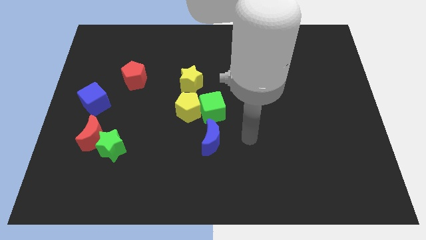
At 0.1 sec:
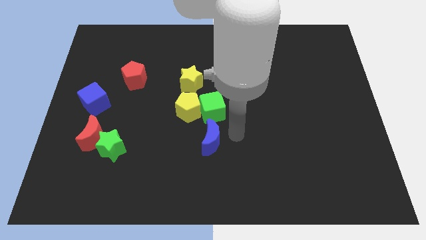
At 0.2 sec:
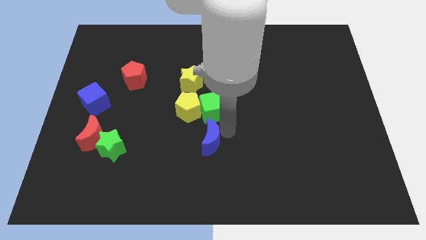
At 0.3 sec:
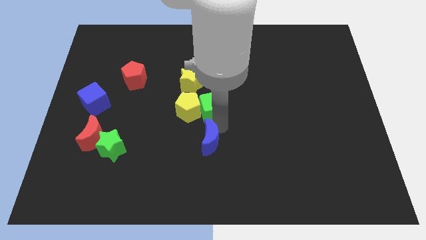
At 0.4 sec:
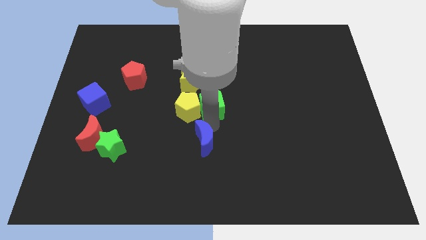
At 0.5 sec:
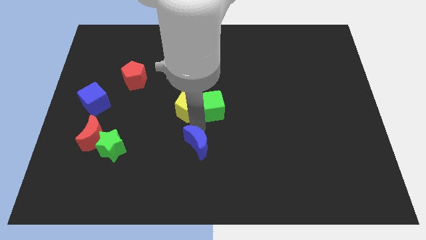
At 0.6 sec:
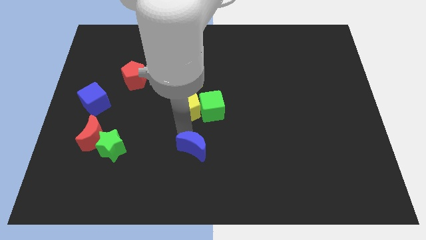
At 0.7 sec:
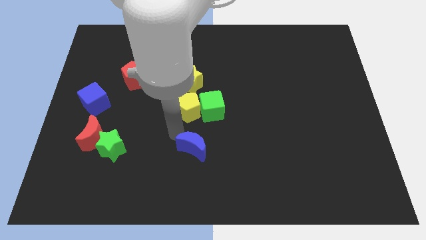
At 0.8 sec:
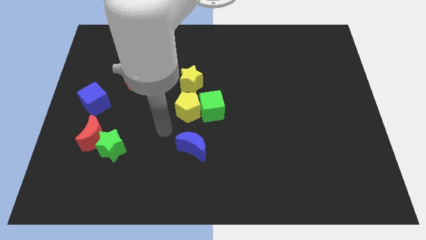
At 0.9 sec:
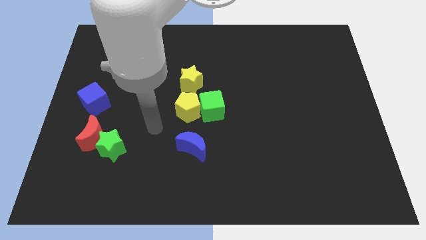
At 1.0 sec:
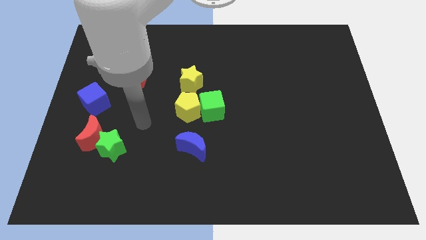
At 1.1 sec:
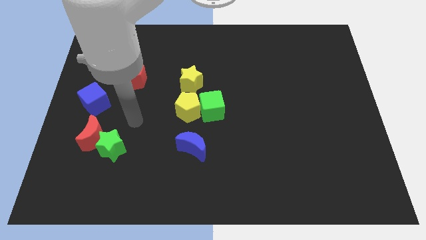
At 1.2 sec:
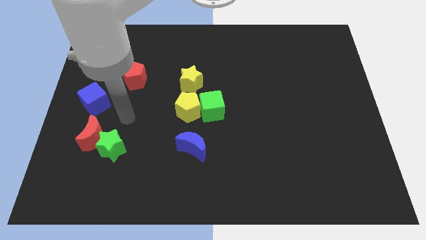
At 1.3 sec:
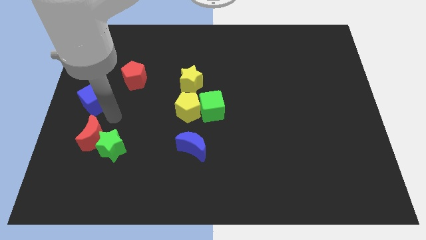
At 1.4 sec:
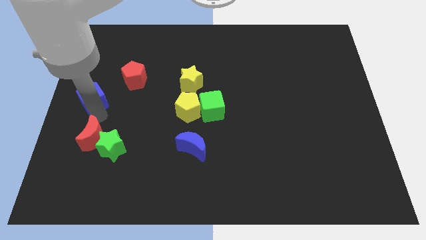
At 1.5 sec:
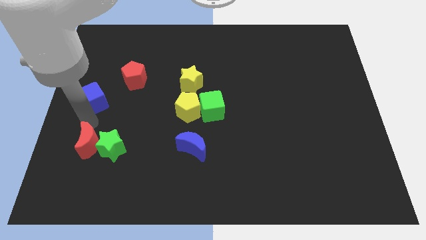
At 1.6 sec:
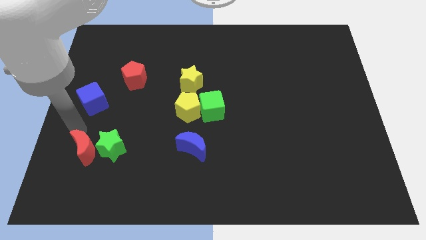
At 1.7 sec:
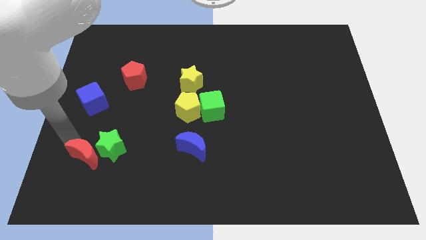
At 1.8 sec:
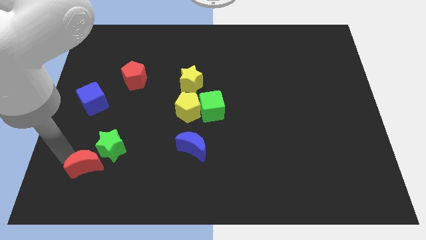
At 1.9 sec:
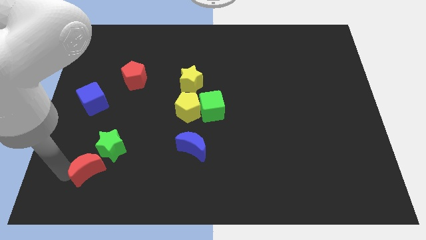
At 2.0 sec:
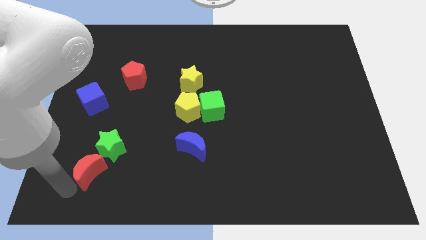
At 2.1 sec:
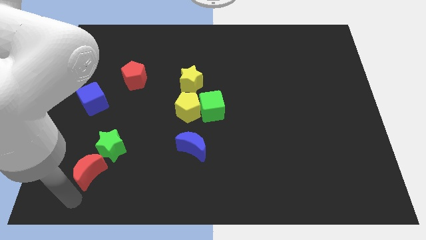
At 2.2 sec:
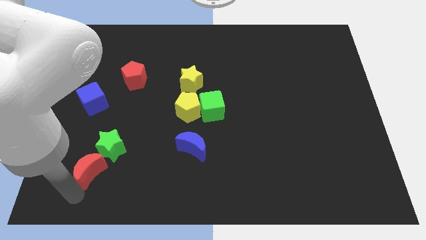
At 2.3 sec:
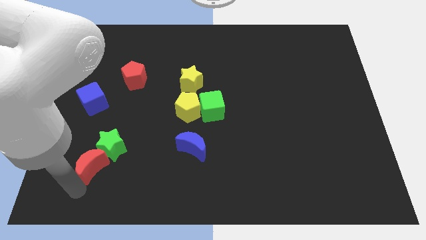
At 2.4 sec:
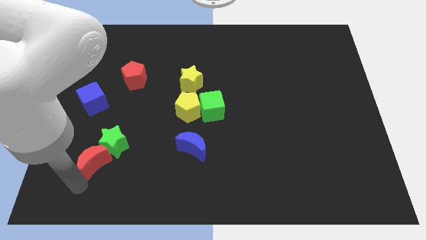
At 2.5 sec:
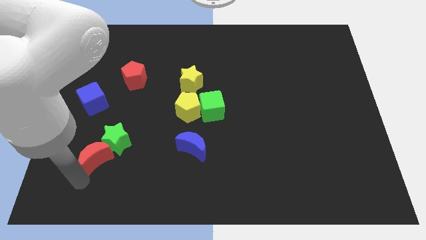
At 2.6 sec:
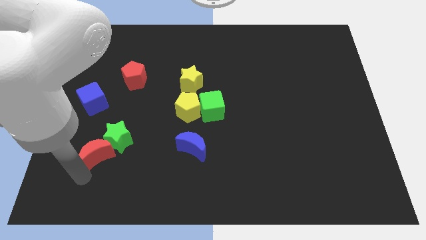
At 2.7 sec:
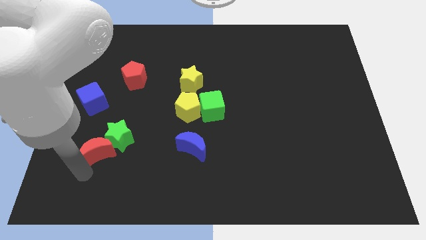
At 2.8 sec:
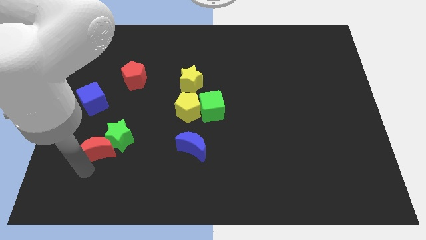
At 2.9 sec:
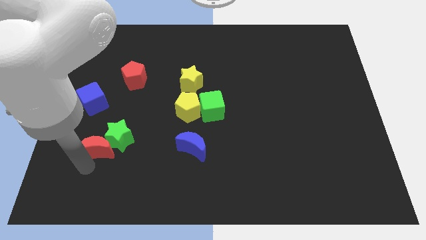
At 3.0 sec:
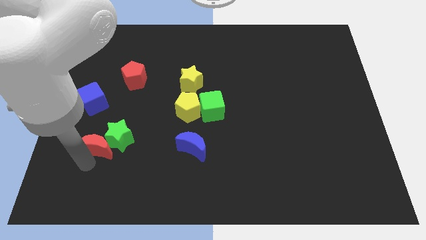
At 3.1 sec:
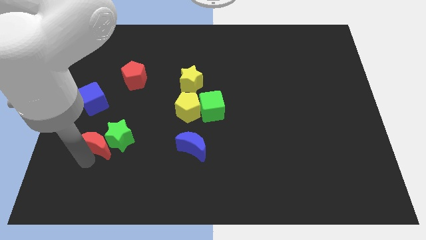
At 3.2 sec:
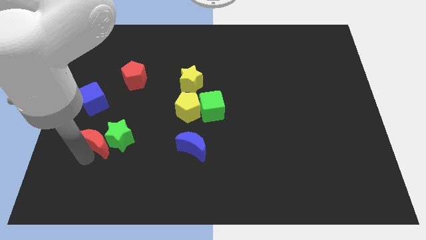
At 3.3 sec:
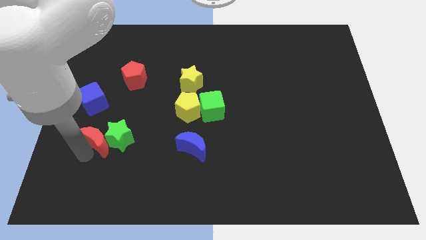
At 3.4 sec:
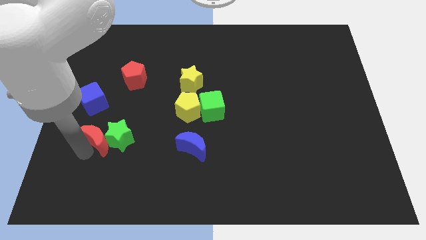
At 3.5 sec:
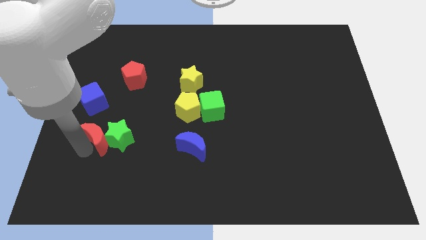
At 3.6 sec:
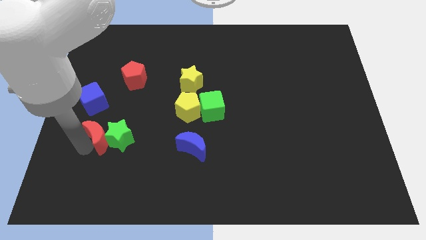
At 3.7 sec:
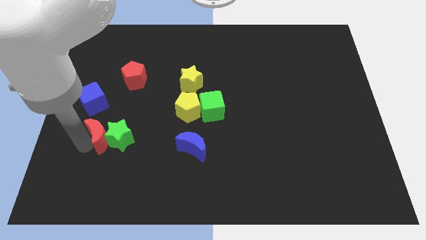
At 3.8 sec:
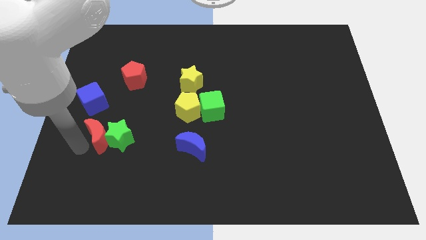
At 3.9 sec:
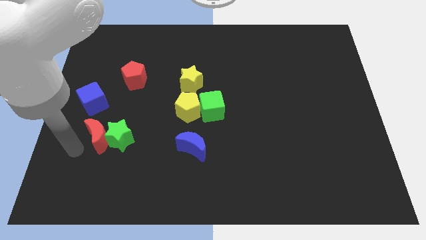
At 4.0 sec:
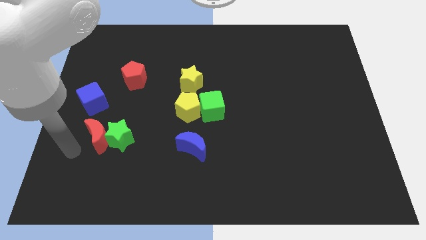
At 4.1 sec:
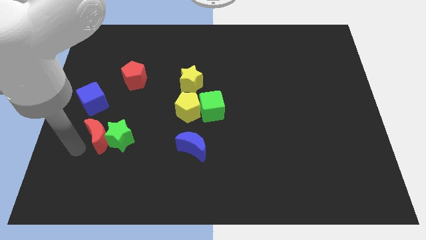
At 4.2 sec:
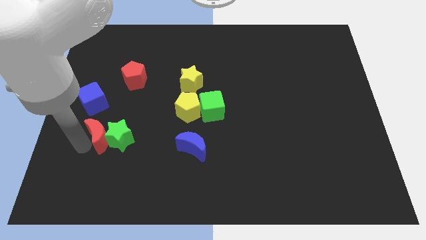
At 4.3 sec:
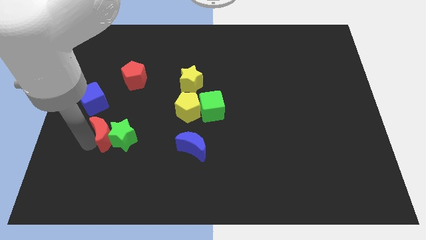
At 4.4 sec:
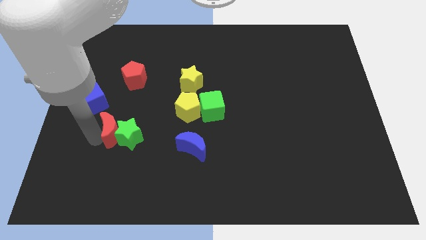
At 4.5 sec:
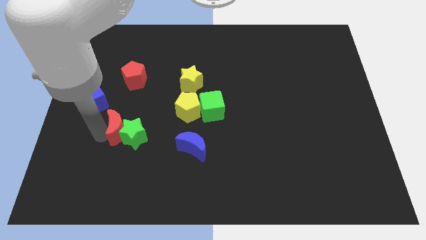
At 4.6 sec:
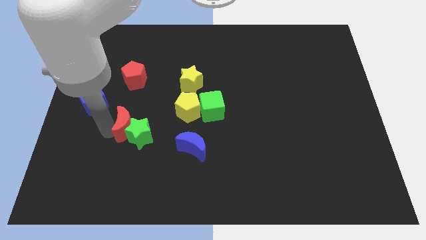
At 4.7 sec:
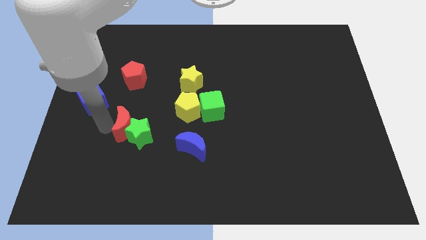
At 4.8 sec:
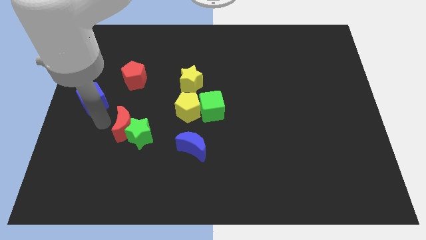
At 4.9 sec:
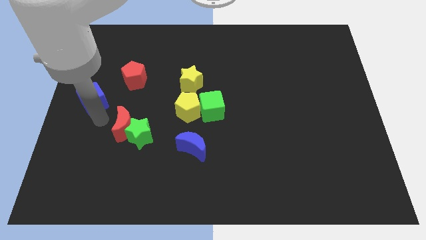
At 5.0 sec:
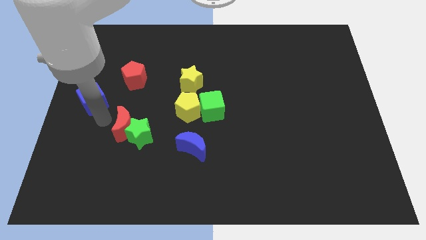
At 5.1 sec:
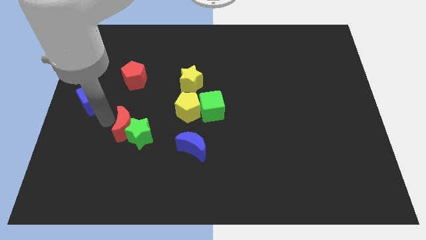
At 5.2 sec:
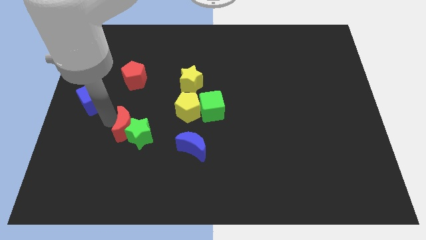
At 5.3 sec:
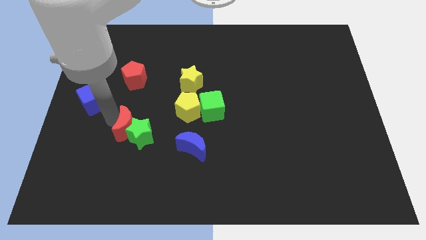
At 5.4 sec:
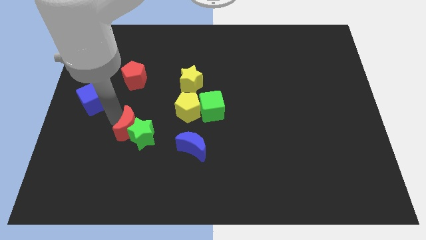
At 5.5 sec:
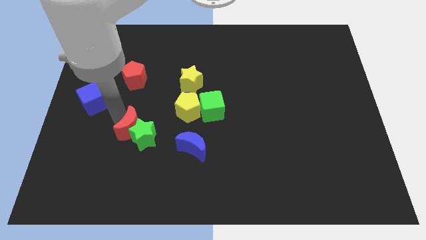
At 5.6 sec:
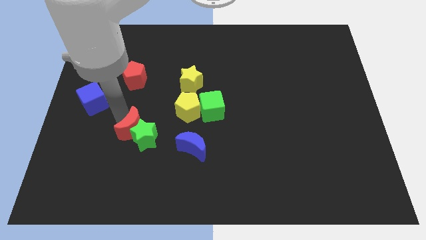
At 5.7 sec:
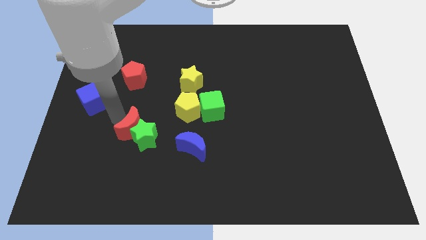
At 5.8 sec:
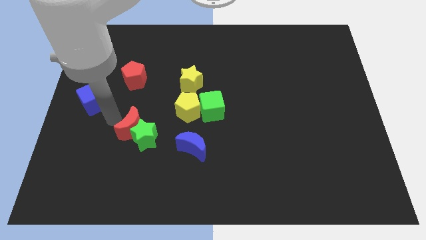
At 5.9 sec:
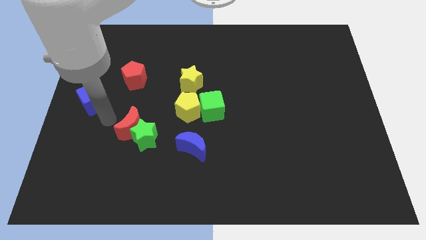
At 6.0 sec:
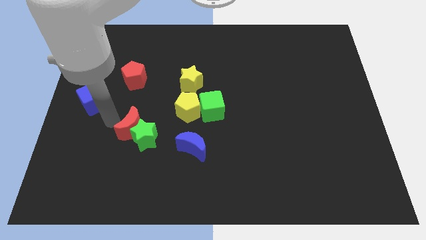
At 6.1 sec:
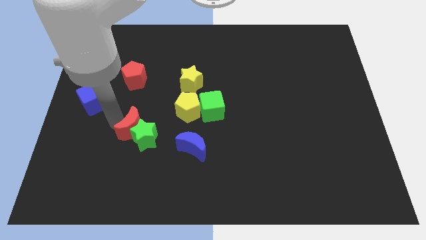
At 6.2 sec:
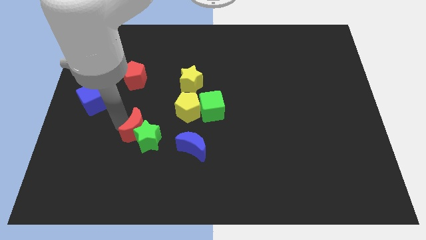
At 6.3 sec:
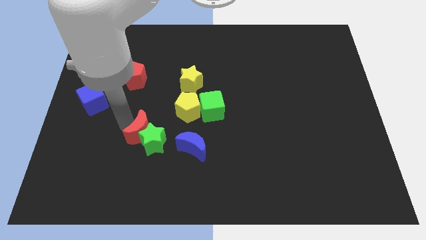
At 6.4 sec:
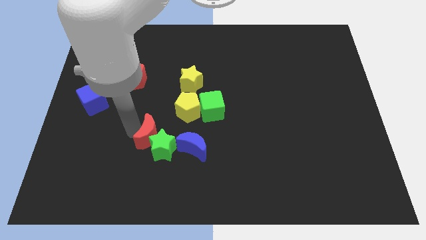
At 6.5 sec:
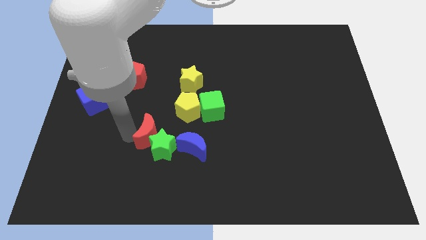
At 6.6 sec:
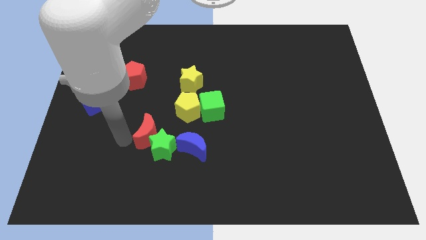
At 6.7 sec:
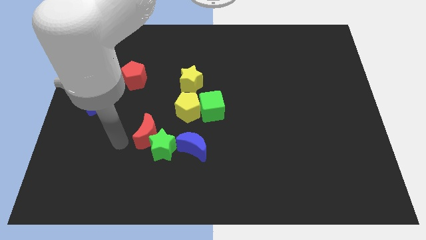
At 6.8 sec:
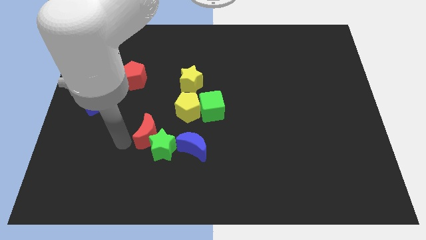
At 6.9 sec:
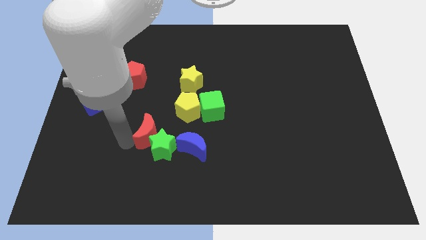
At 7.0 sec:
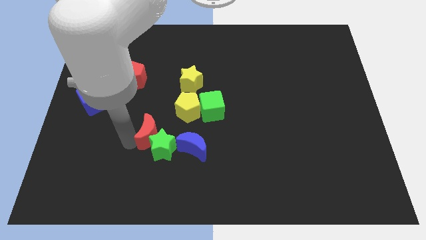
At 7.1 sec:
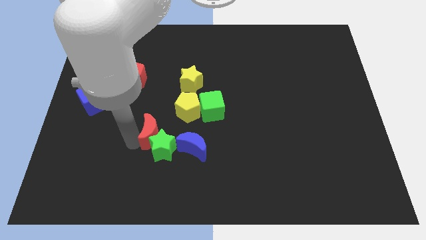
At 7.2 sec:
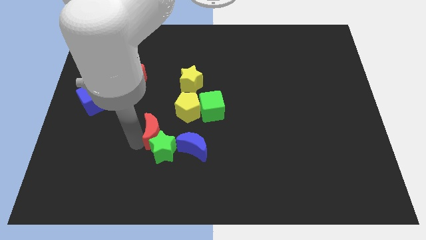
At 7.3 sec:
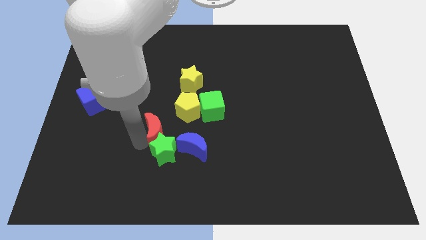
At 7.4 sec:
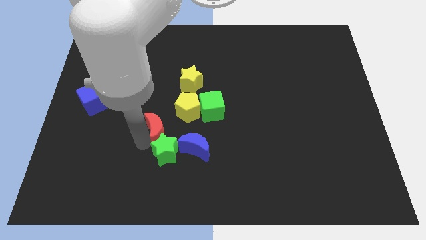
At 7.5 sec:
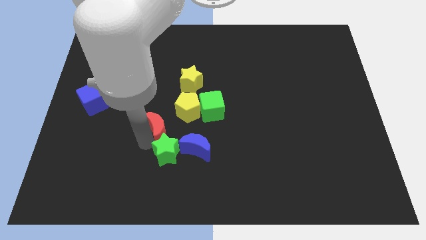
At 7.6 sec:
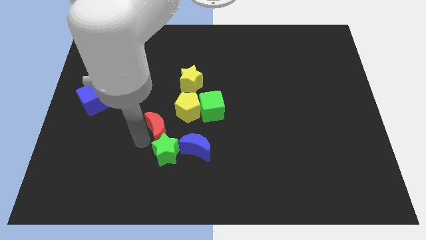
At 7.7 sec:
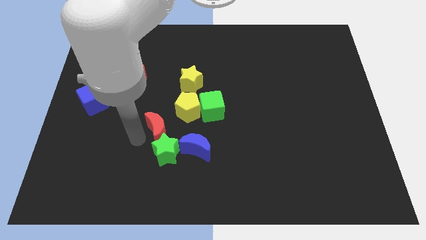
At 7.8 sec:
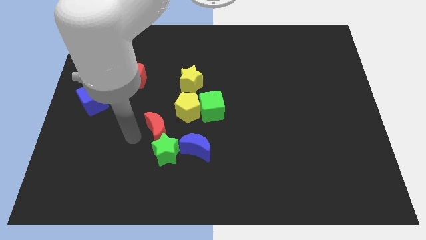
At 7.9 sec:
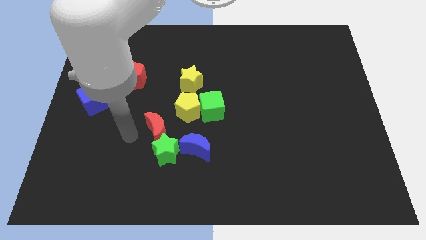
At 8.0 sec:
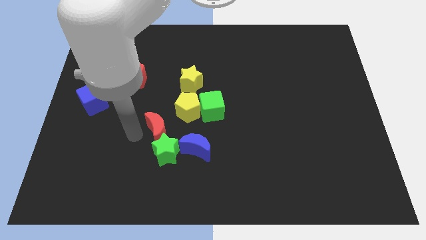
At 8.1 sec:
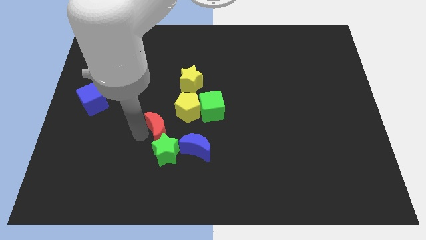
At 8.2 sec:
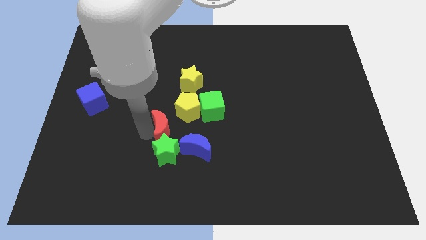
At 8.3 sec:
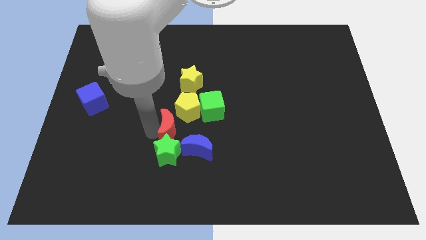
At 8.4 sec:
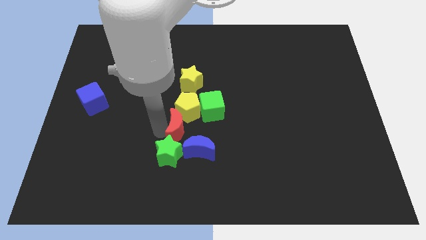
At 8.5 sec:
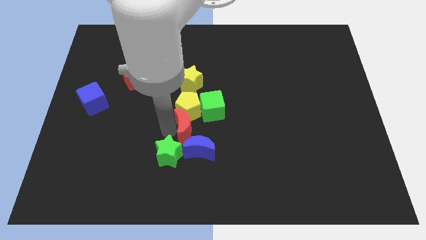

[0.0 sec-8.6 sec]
move the red moon to the right
